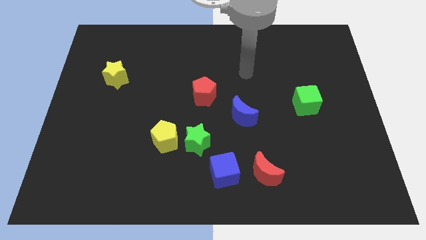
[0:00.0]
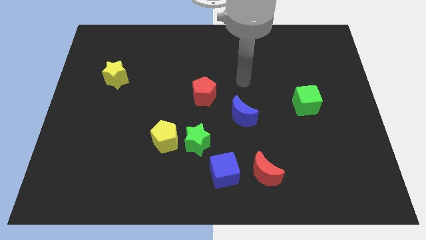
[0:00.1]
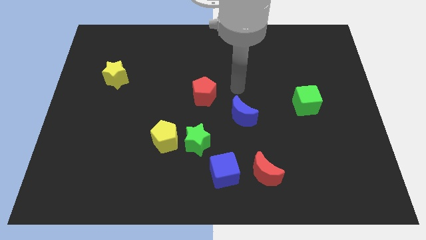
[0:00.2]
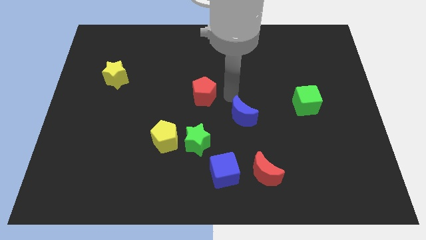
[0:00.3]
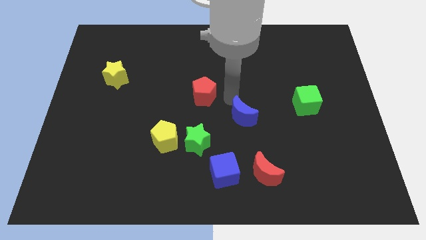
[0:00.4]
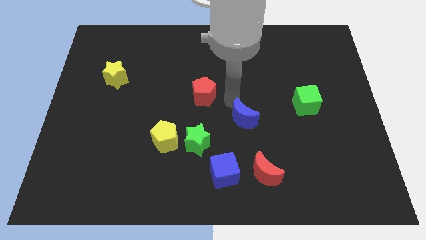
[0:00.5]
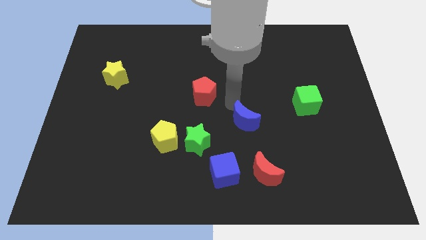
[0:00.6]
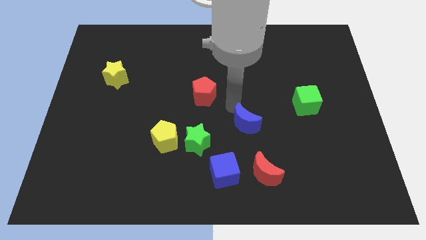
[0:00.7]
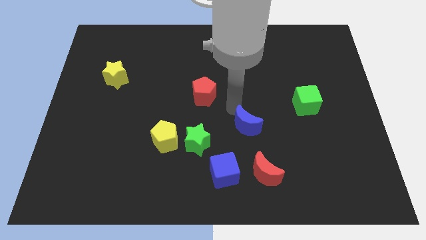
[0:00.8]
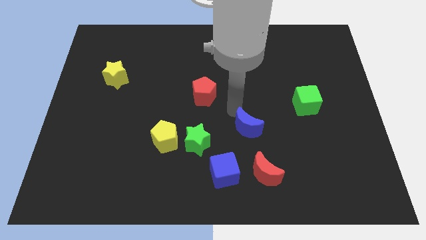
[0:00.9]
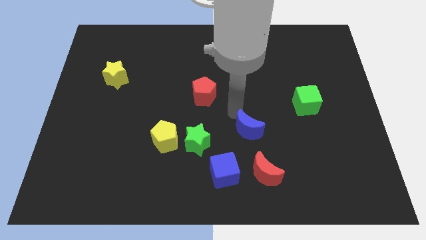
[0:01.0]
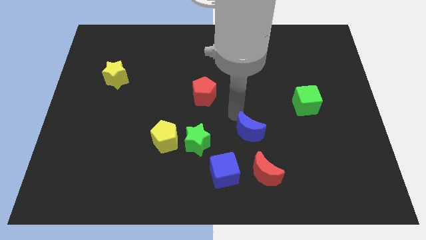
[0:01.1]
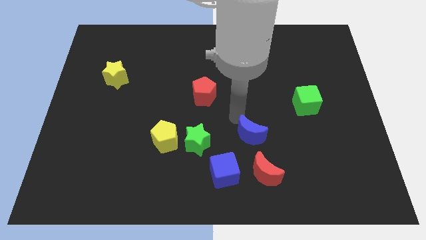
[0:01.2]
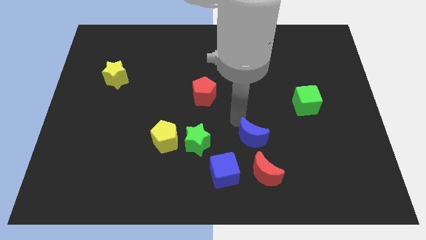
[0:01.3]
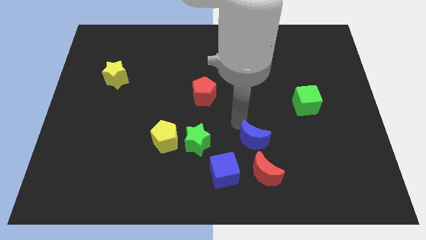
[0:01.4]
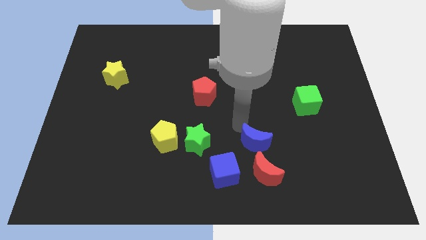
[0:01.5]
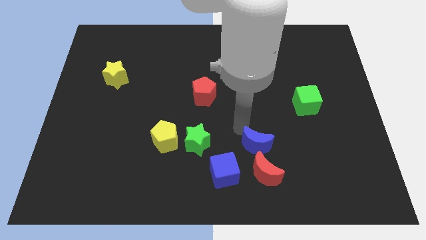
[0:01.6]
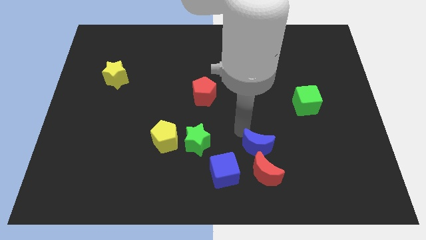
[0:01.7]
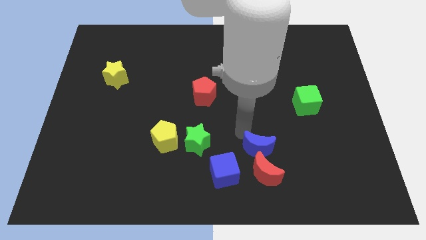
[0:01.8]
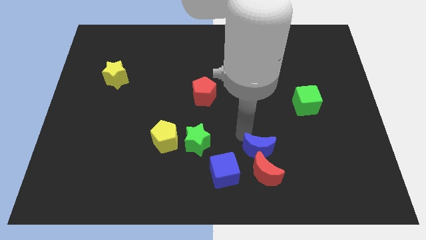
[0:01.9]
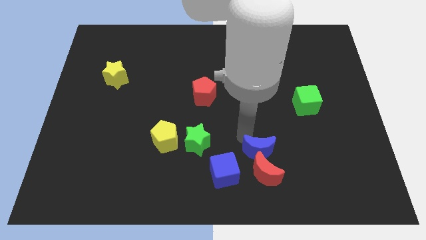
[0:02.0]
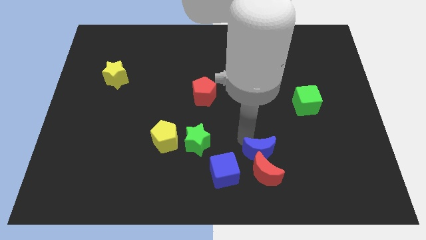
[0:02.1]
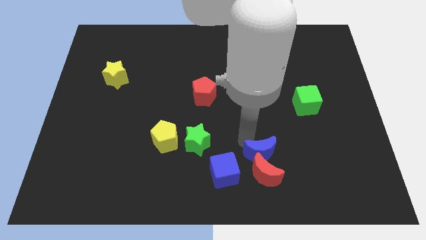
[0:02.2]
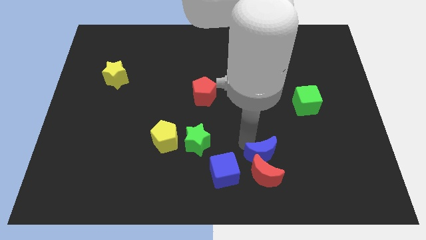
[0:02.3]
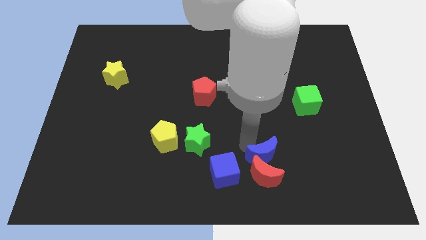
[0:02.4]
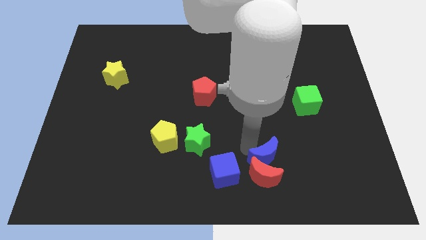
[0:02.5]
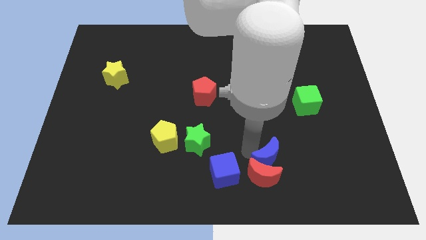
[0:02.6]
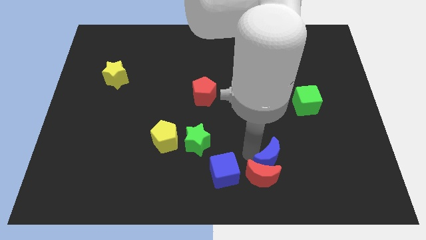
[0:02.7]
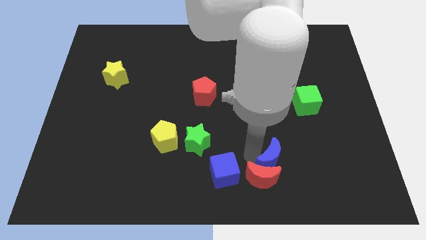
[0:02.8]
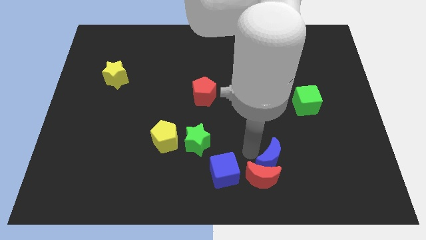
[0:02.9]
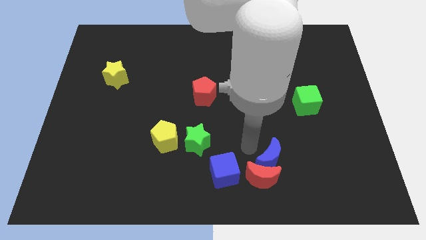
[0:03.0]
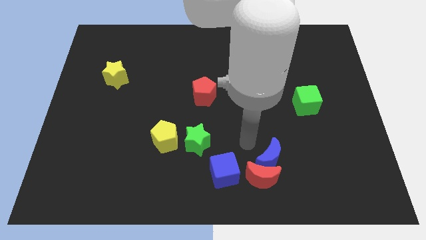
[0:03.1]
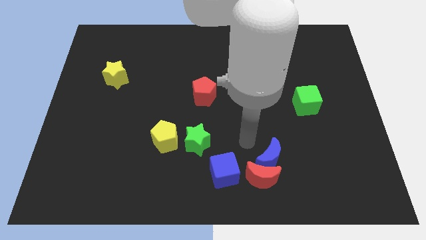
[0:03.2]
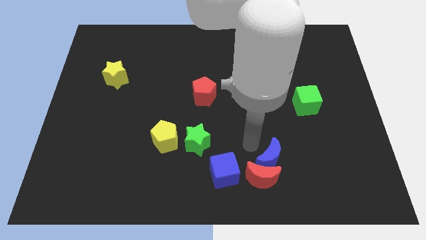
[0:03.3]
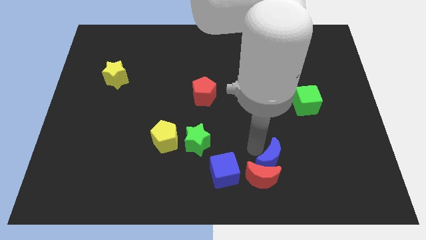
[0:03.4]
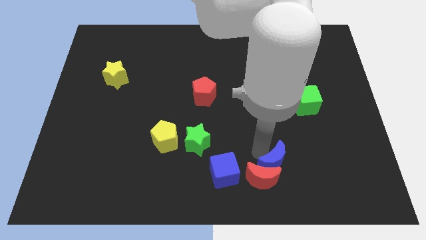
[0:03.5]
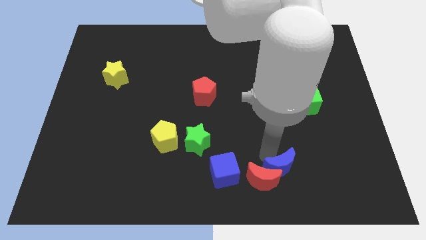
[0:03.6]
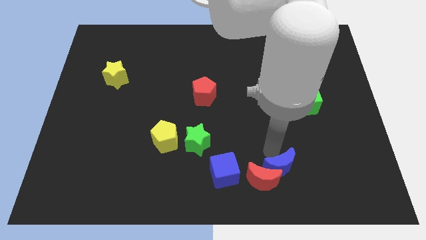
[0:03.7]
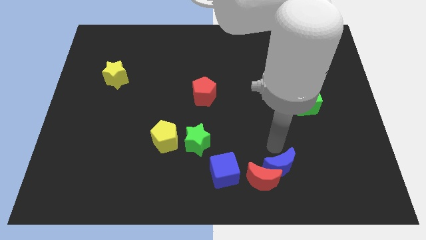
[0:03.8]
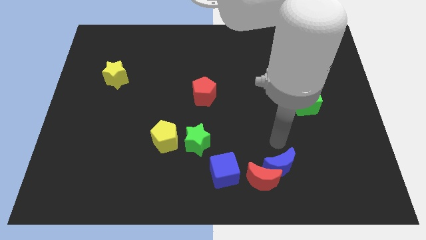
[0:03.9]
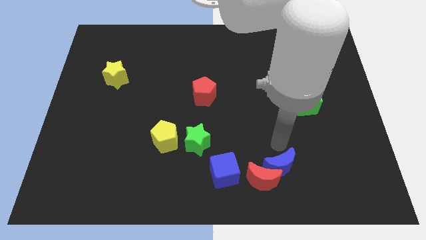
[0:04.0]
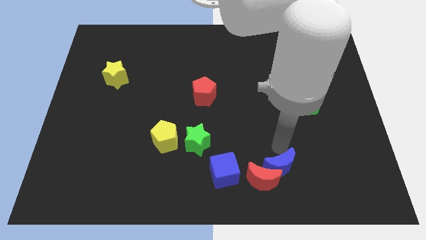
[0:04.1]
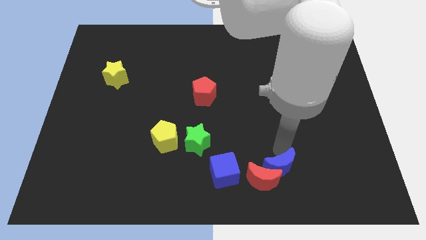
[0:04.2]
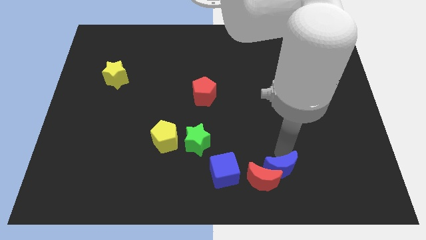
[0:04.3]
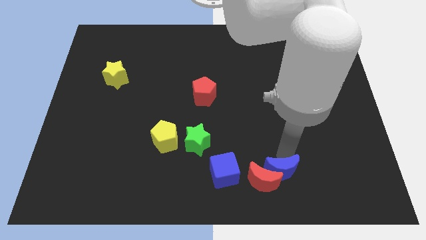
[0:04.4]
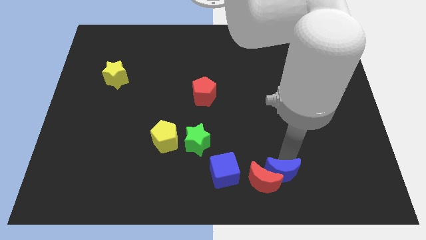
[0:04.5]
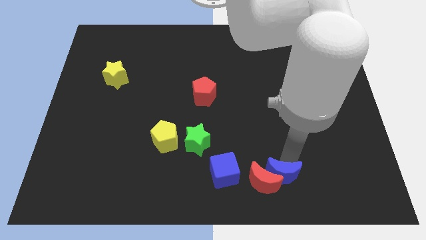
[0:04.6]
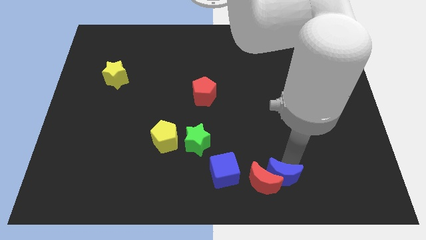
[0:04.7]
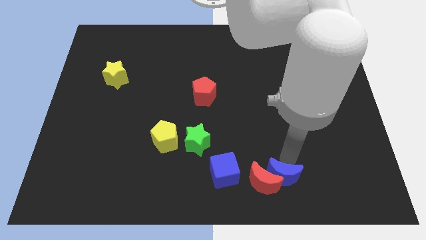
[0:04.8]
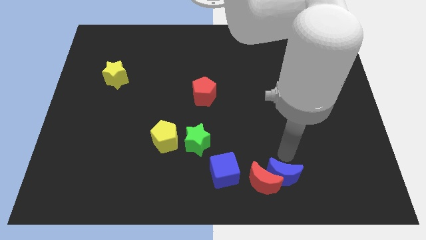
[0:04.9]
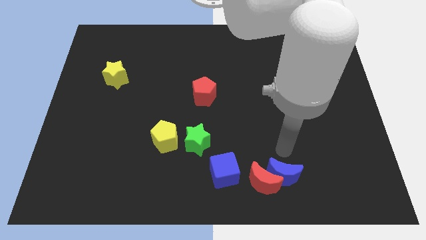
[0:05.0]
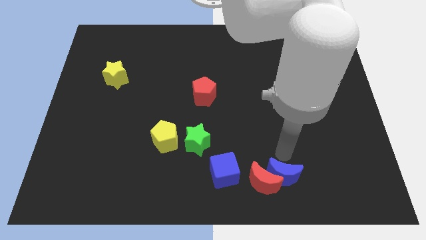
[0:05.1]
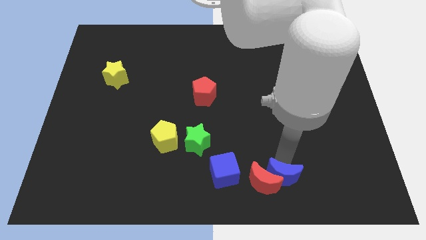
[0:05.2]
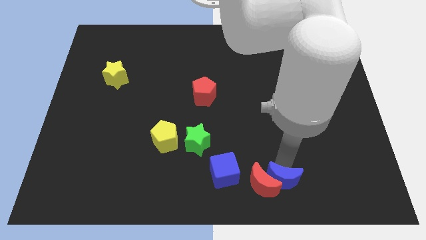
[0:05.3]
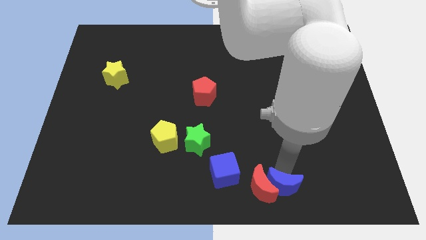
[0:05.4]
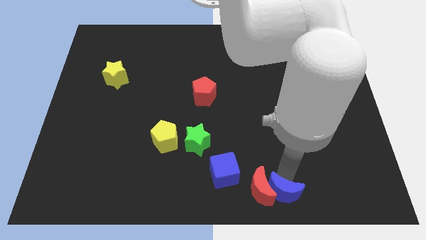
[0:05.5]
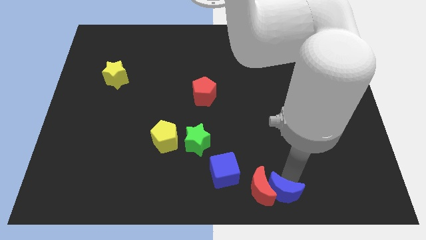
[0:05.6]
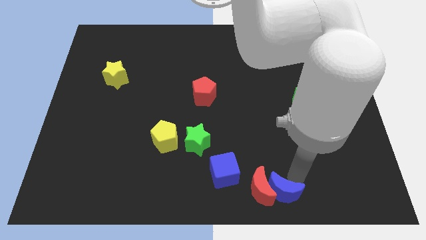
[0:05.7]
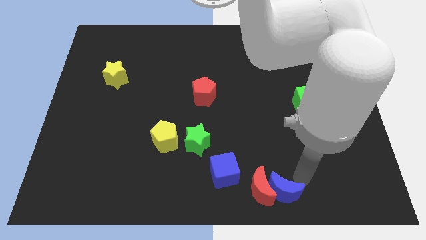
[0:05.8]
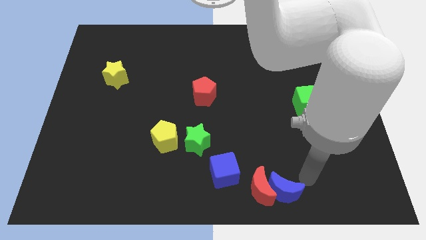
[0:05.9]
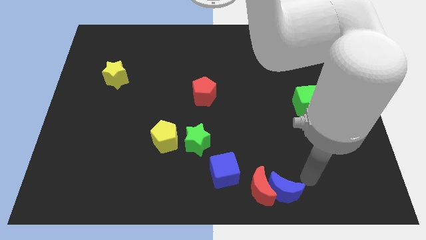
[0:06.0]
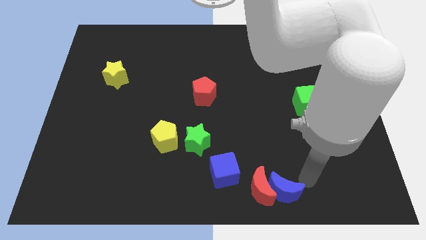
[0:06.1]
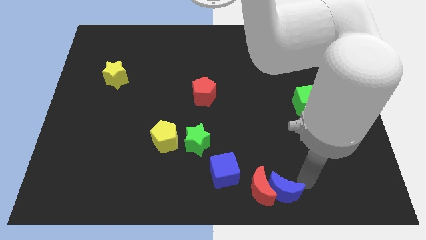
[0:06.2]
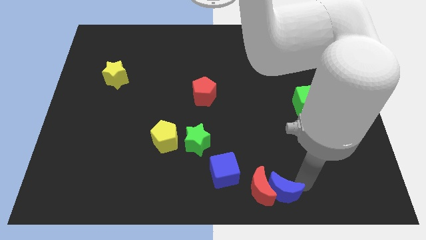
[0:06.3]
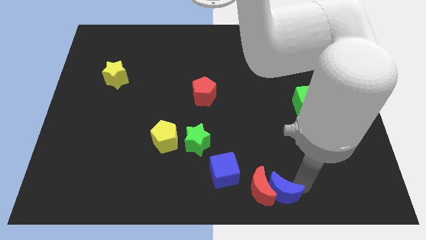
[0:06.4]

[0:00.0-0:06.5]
push the blue moon to the bottom
